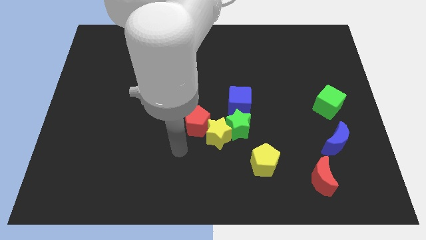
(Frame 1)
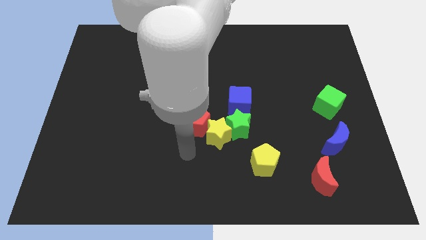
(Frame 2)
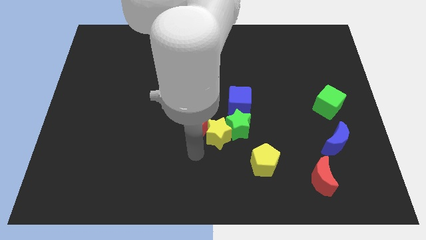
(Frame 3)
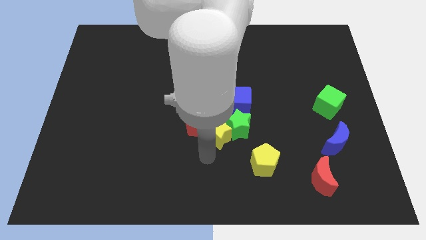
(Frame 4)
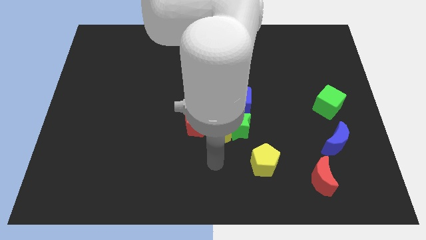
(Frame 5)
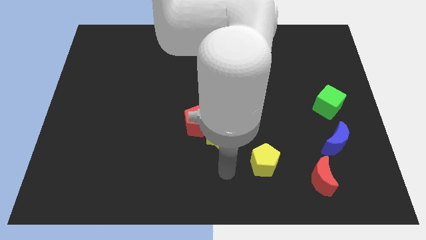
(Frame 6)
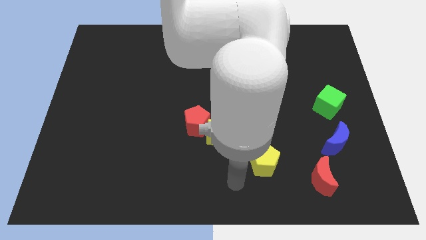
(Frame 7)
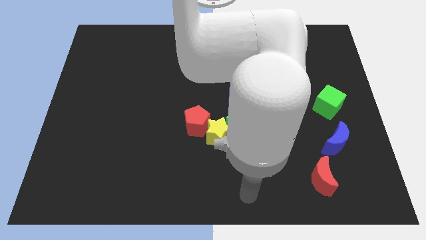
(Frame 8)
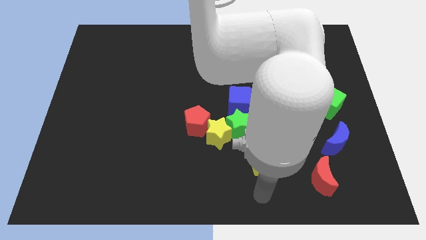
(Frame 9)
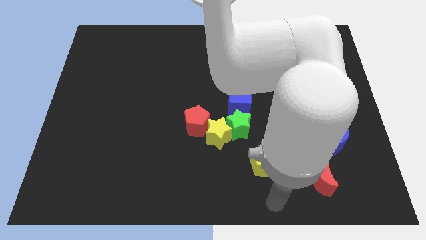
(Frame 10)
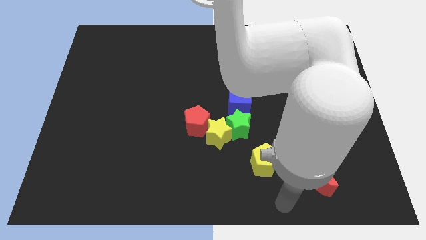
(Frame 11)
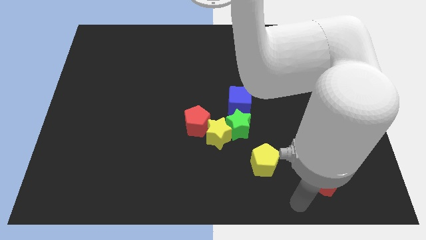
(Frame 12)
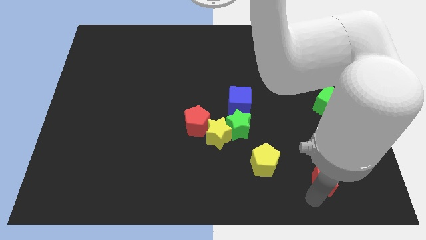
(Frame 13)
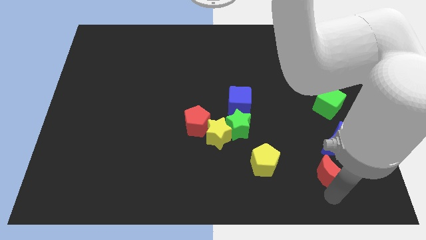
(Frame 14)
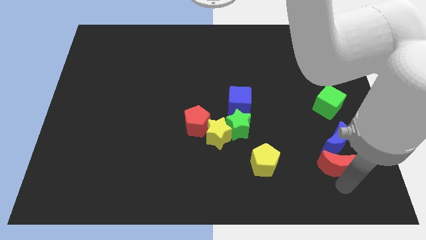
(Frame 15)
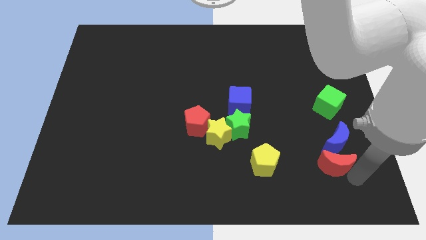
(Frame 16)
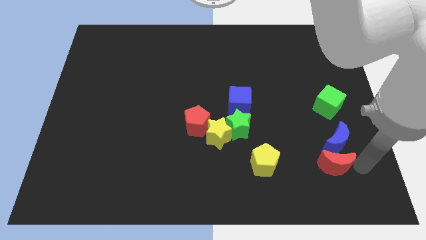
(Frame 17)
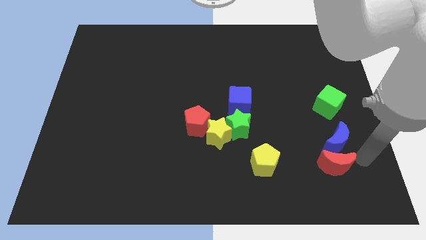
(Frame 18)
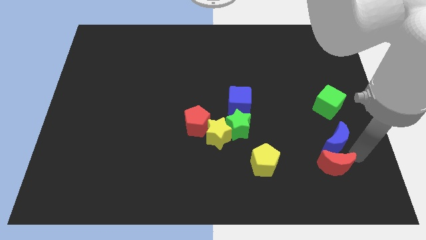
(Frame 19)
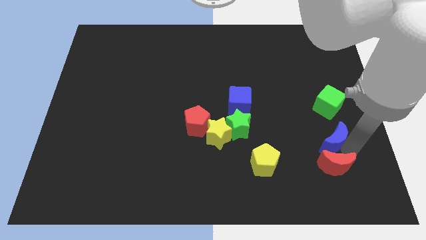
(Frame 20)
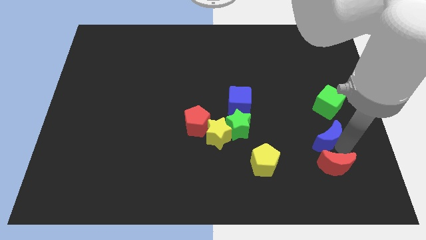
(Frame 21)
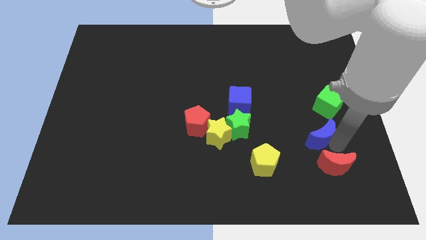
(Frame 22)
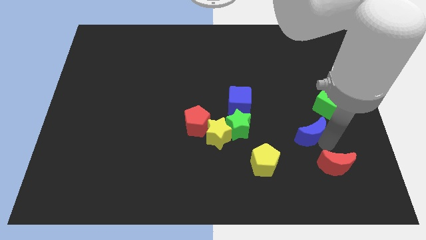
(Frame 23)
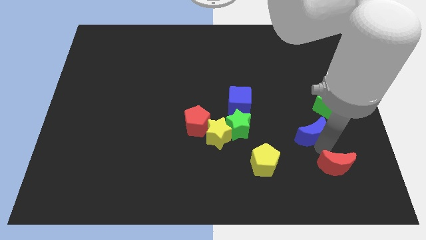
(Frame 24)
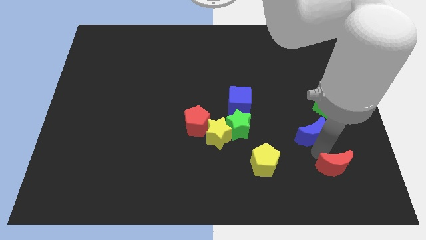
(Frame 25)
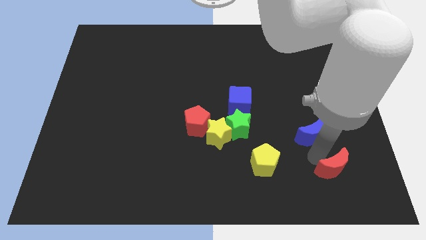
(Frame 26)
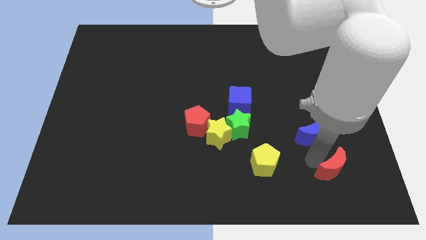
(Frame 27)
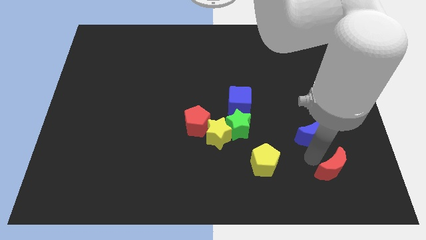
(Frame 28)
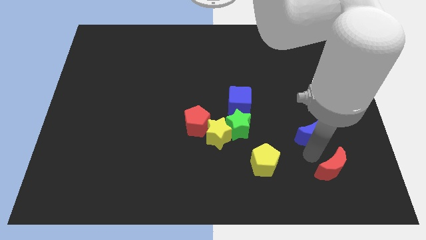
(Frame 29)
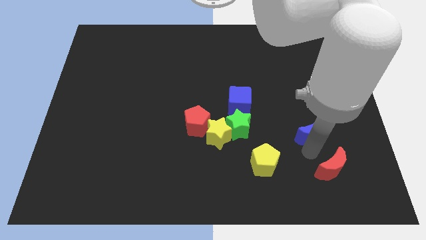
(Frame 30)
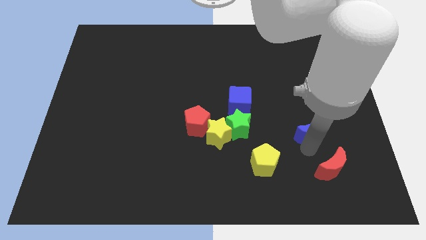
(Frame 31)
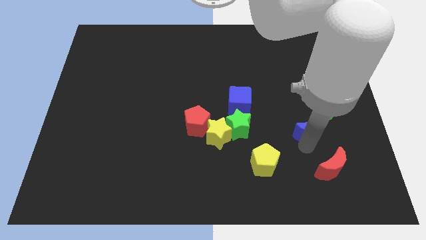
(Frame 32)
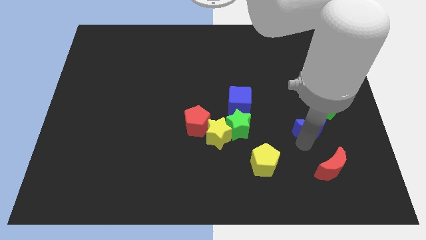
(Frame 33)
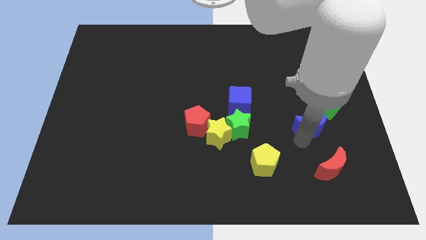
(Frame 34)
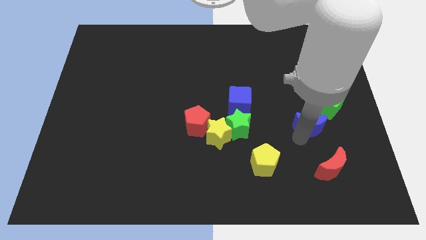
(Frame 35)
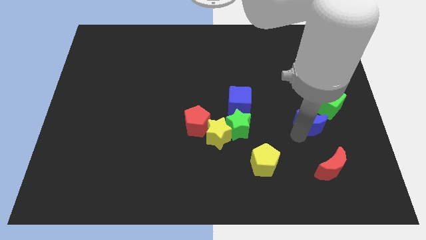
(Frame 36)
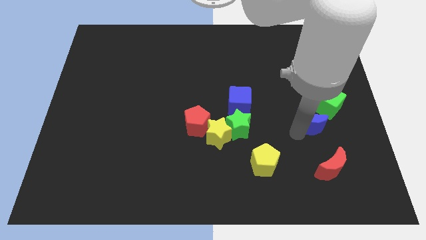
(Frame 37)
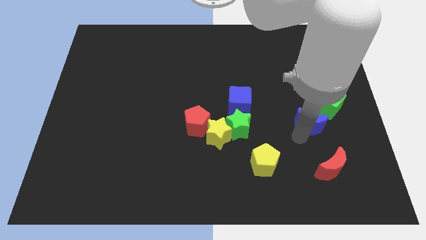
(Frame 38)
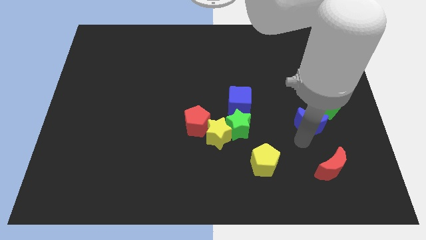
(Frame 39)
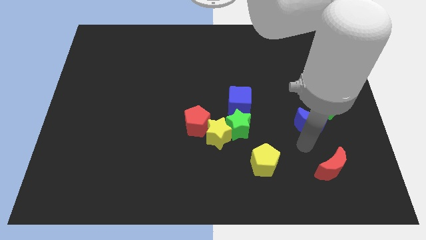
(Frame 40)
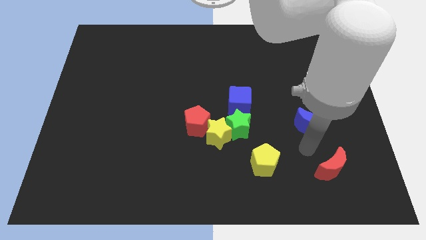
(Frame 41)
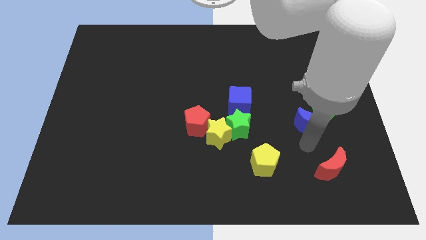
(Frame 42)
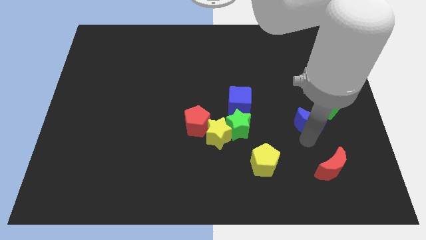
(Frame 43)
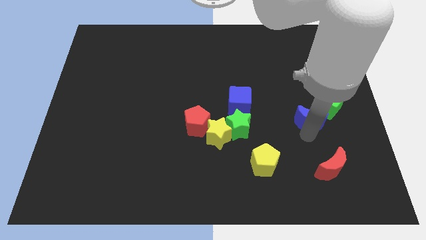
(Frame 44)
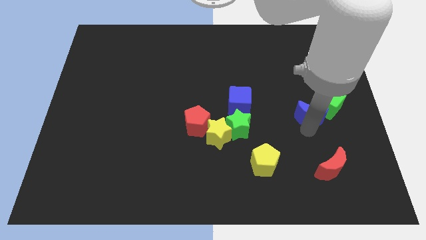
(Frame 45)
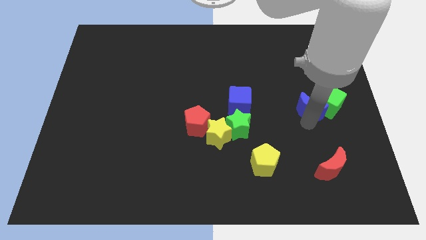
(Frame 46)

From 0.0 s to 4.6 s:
slide the blue moon upwards a bit

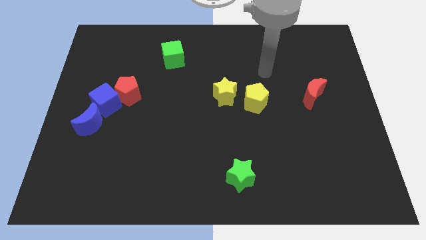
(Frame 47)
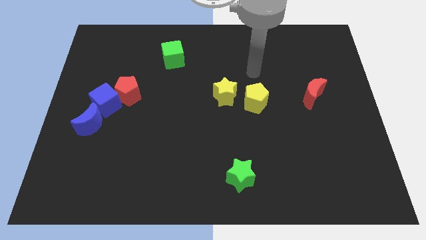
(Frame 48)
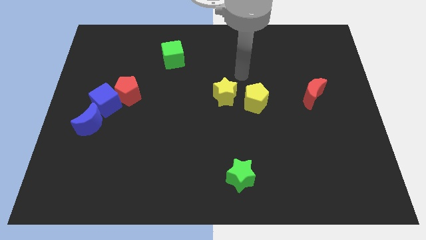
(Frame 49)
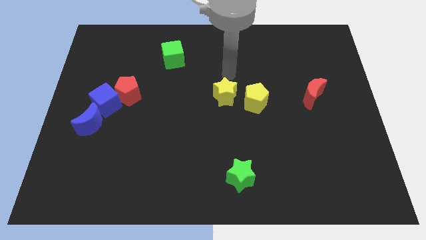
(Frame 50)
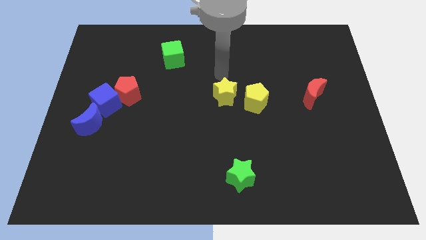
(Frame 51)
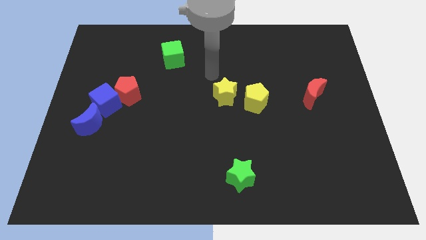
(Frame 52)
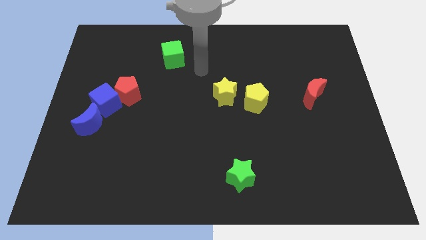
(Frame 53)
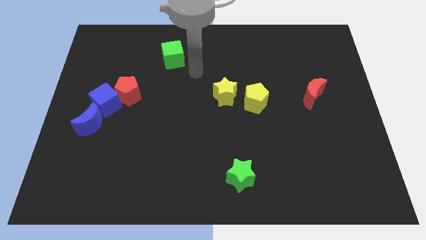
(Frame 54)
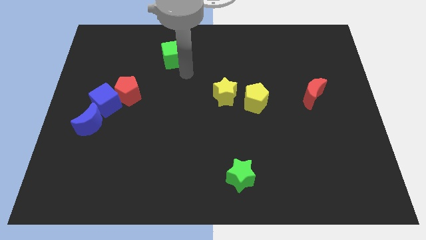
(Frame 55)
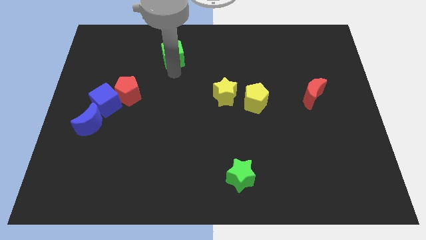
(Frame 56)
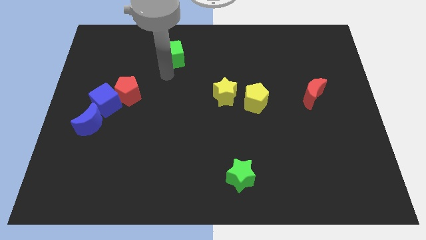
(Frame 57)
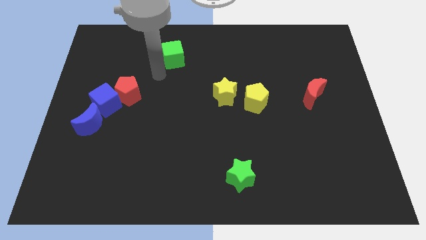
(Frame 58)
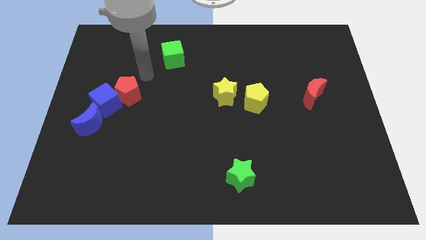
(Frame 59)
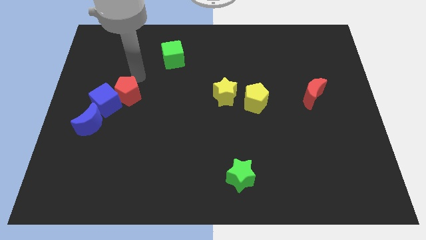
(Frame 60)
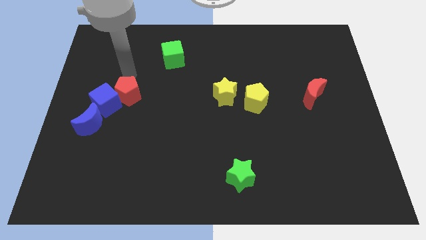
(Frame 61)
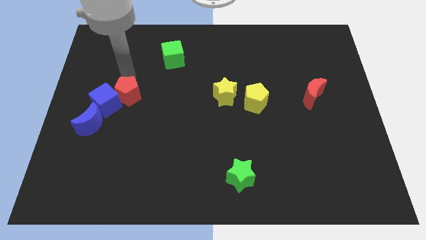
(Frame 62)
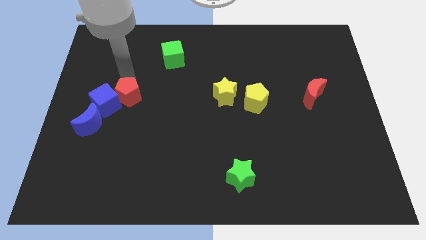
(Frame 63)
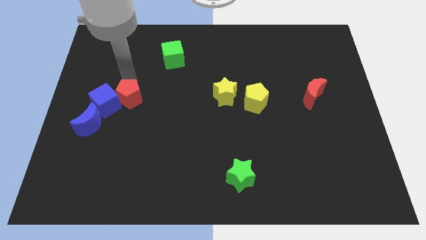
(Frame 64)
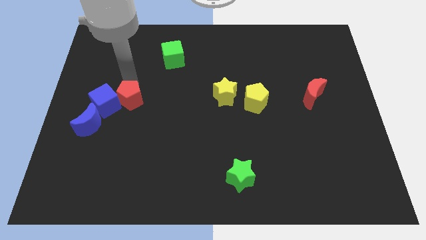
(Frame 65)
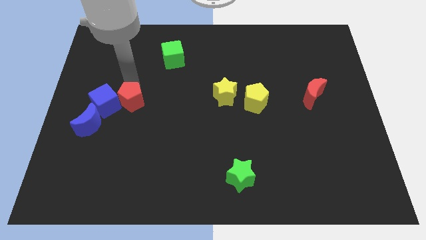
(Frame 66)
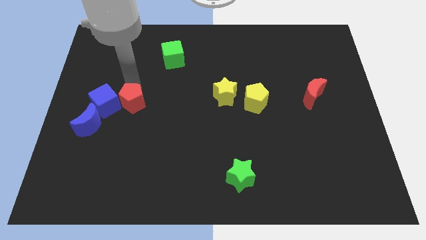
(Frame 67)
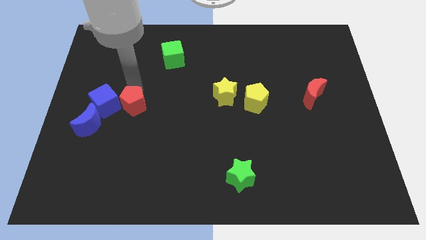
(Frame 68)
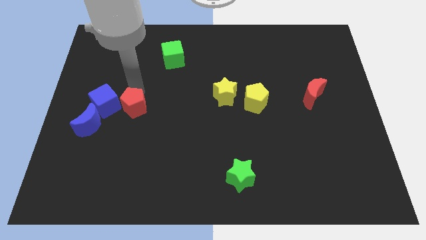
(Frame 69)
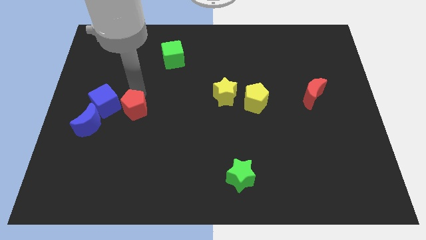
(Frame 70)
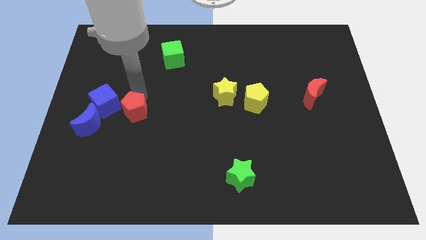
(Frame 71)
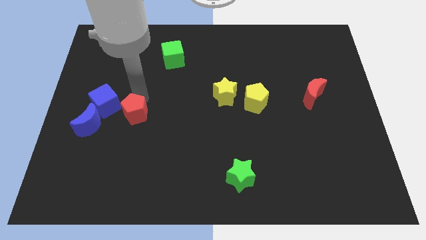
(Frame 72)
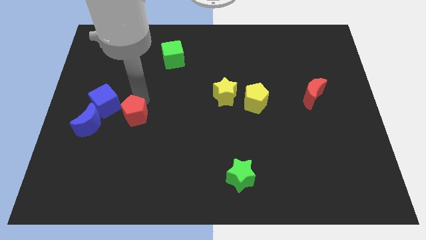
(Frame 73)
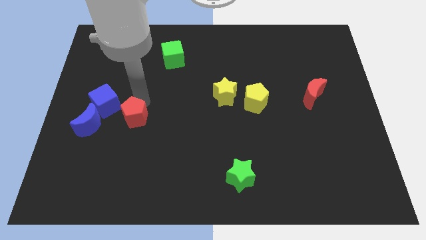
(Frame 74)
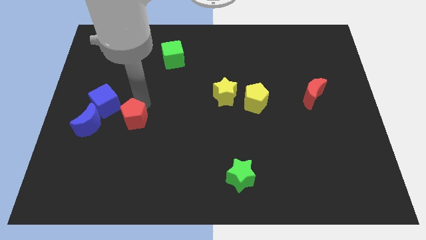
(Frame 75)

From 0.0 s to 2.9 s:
move the red pentagon down slightly

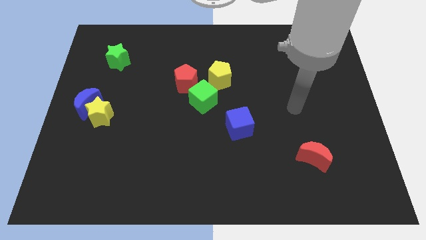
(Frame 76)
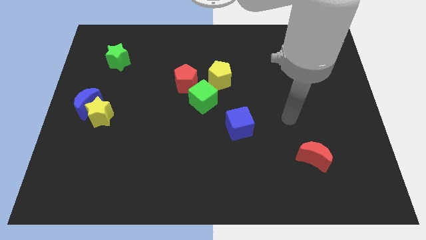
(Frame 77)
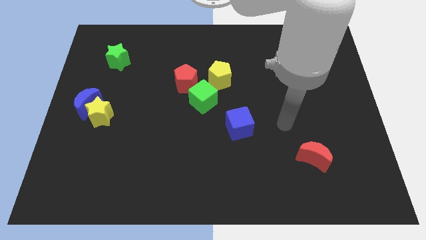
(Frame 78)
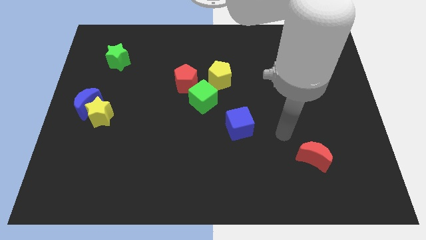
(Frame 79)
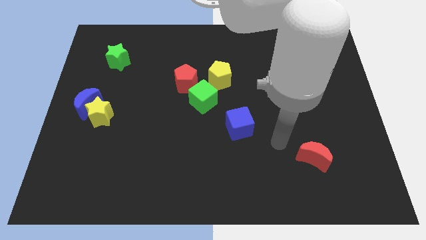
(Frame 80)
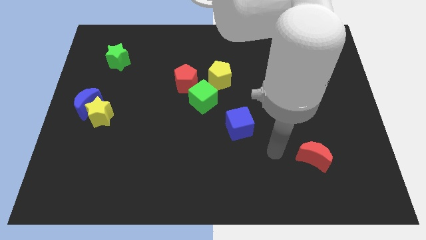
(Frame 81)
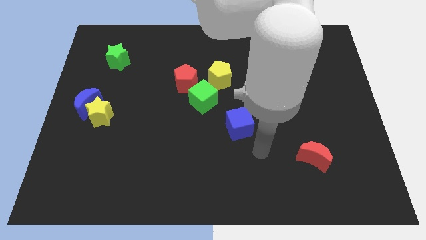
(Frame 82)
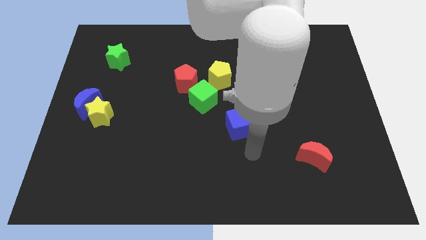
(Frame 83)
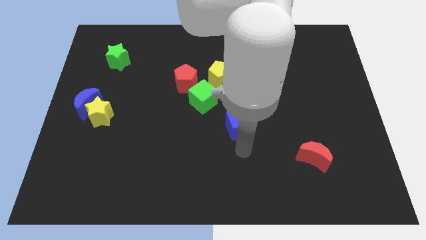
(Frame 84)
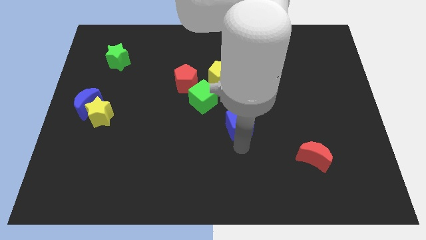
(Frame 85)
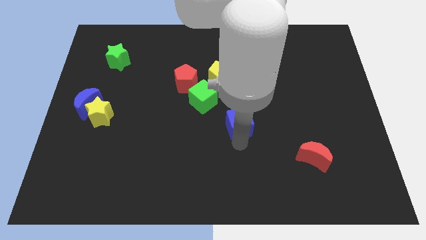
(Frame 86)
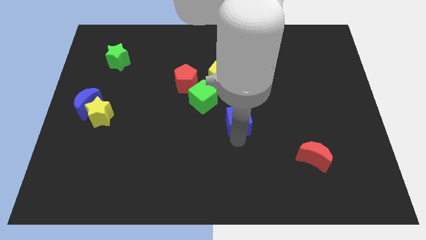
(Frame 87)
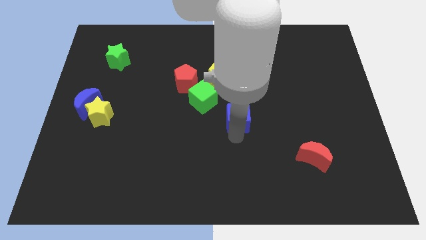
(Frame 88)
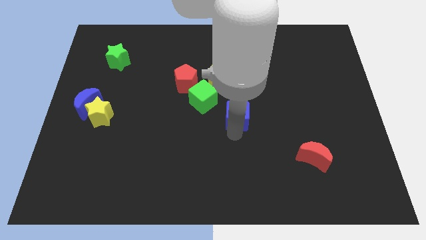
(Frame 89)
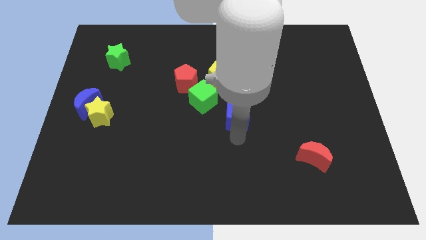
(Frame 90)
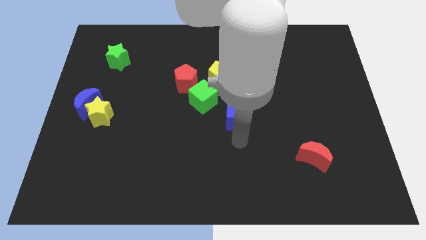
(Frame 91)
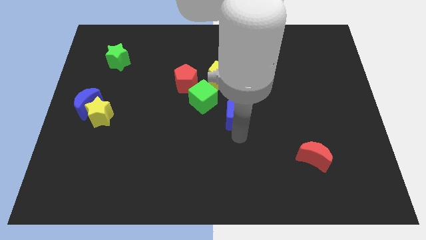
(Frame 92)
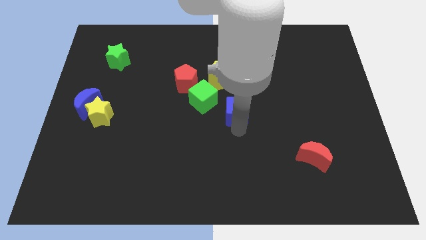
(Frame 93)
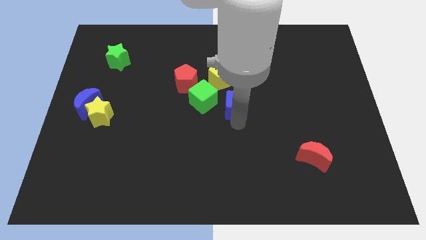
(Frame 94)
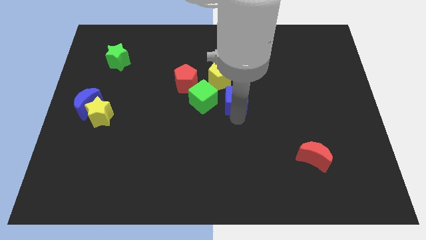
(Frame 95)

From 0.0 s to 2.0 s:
slightly move the blue cube upwards
